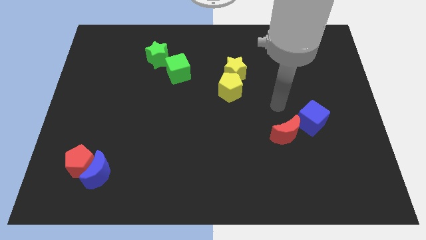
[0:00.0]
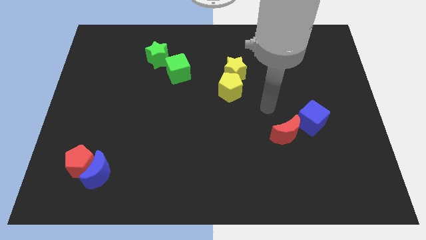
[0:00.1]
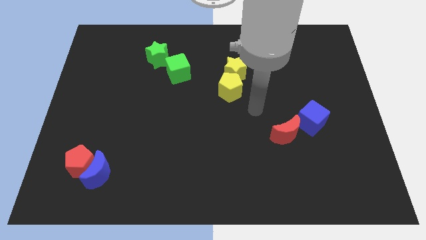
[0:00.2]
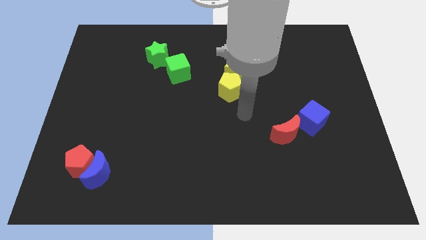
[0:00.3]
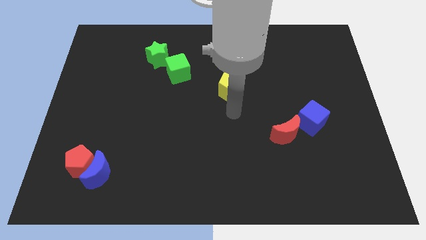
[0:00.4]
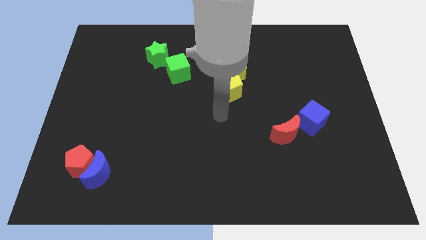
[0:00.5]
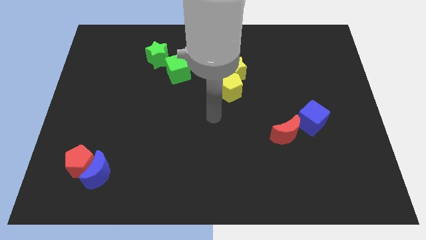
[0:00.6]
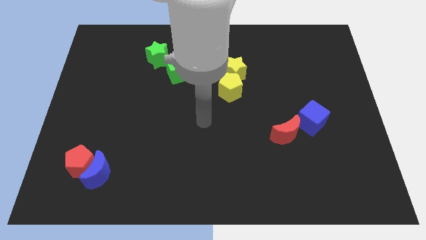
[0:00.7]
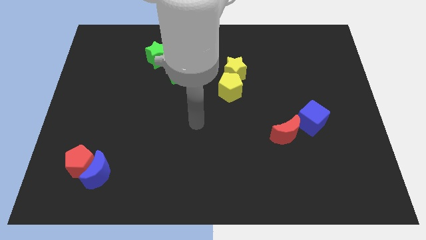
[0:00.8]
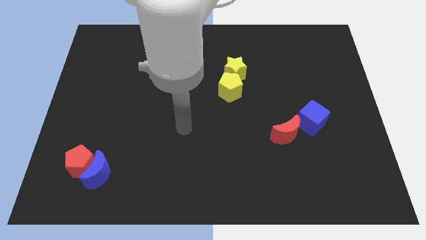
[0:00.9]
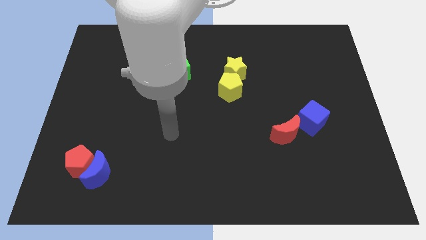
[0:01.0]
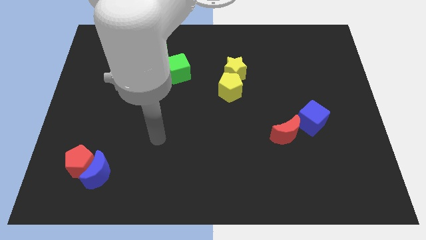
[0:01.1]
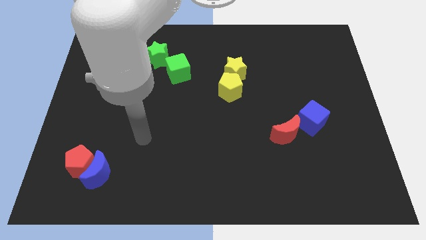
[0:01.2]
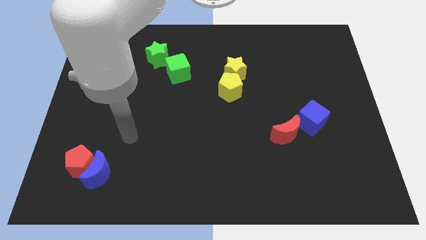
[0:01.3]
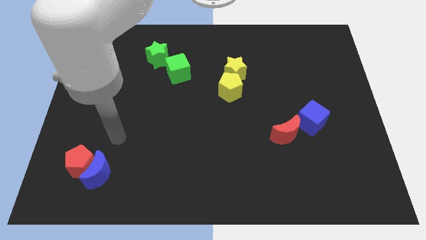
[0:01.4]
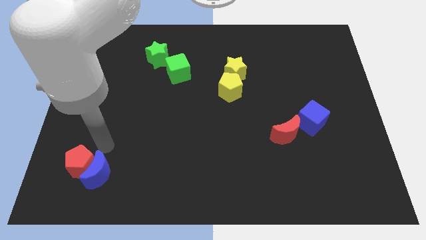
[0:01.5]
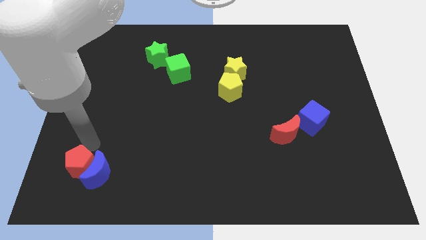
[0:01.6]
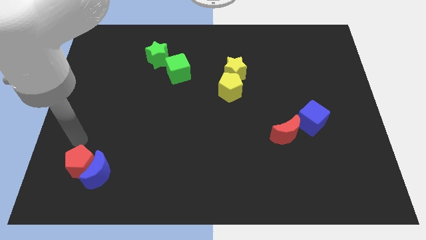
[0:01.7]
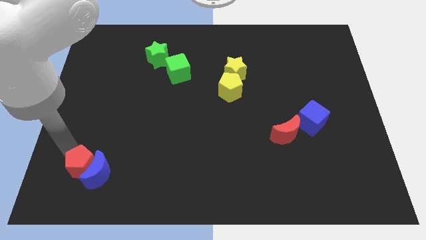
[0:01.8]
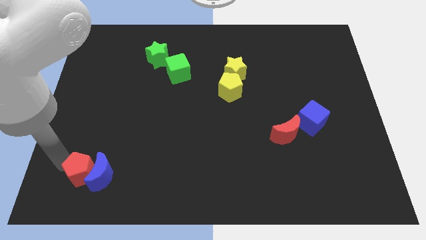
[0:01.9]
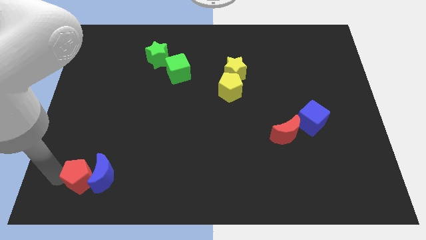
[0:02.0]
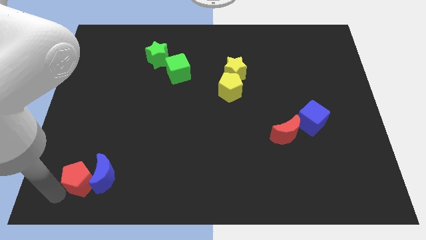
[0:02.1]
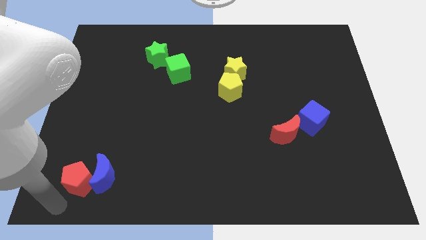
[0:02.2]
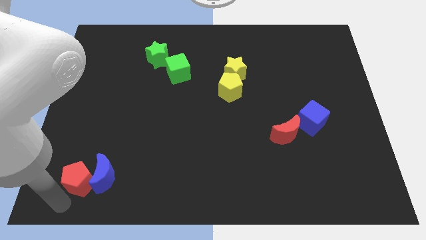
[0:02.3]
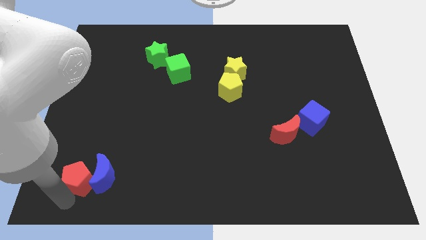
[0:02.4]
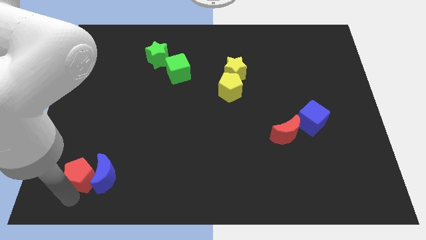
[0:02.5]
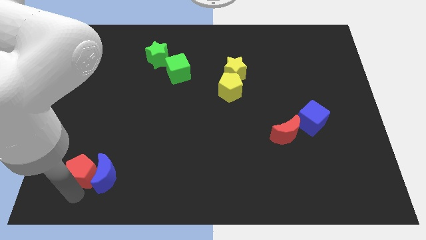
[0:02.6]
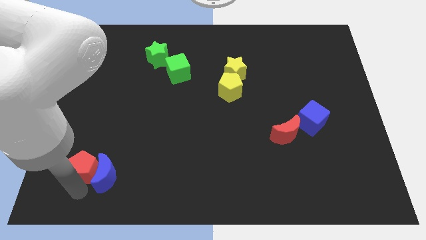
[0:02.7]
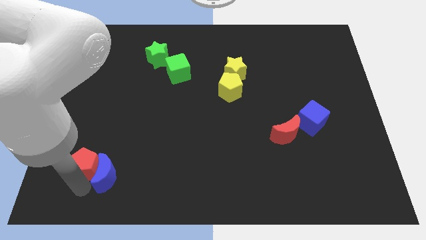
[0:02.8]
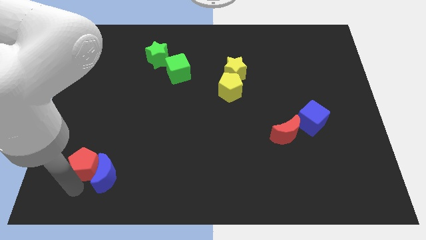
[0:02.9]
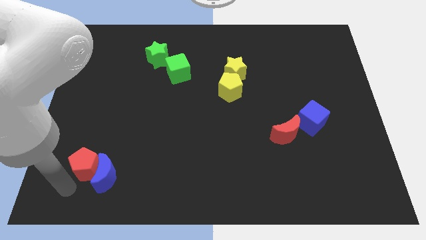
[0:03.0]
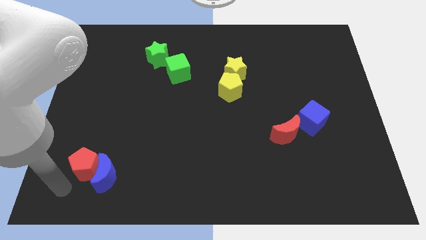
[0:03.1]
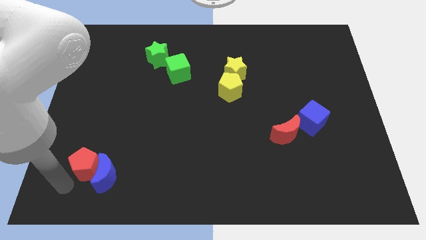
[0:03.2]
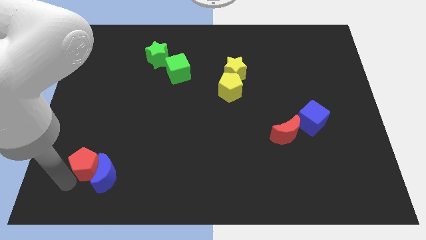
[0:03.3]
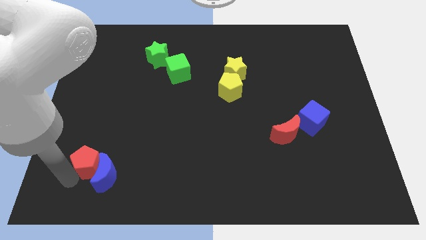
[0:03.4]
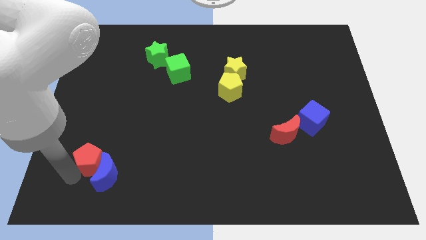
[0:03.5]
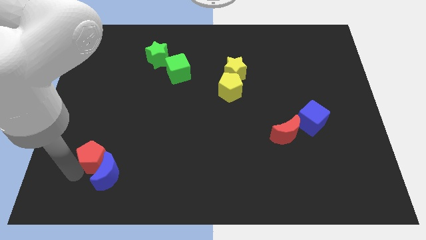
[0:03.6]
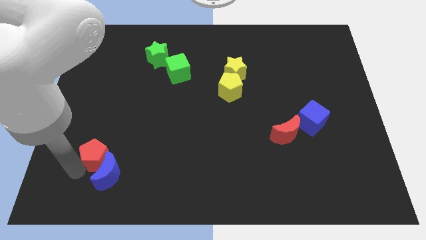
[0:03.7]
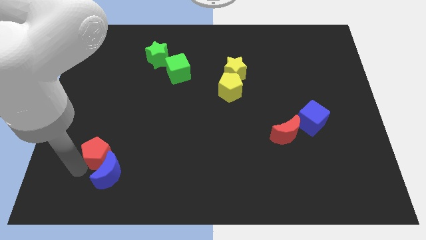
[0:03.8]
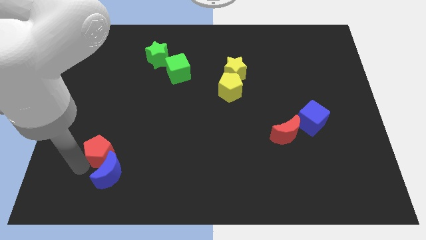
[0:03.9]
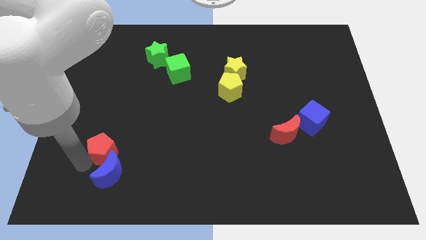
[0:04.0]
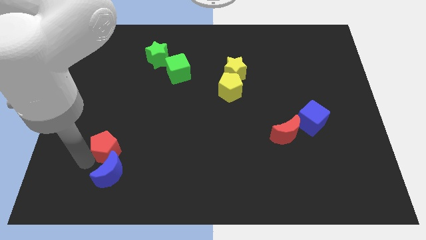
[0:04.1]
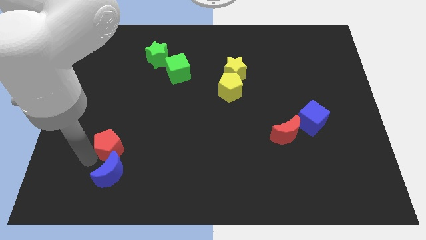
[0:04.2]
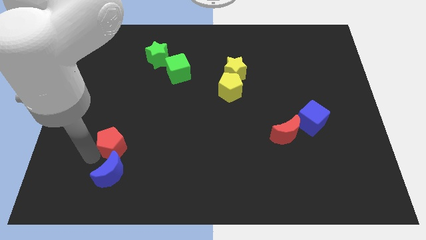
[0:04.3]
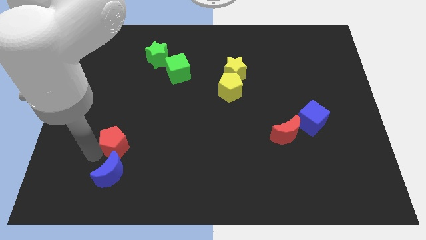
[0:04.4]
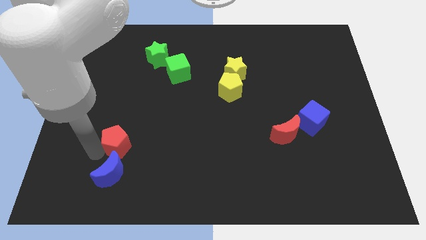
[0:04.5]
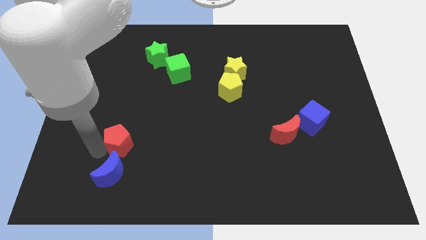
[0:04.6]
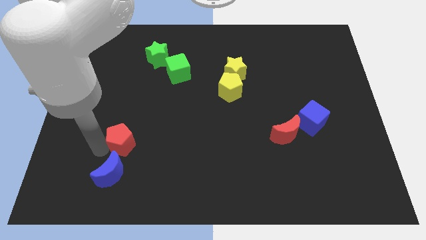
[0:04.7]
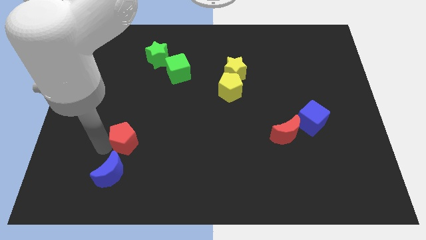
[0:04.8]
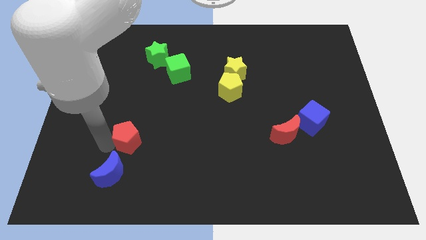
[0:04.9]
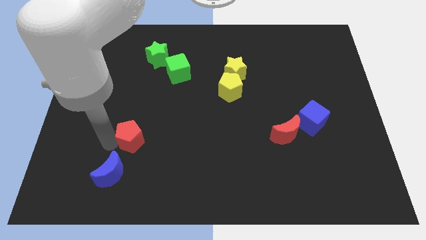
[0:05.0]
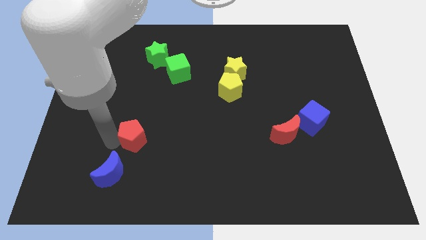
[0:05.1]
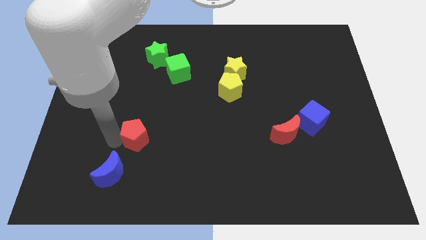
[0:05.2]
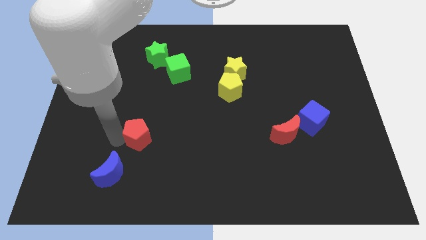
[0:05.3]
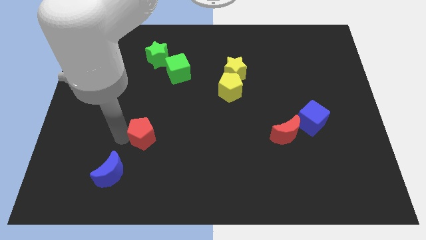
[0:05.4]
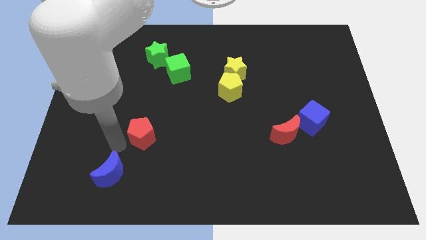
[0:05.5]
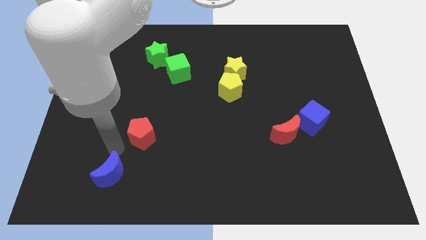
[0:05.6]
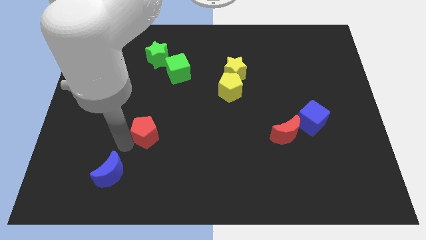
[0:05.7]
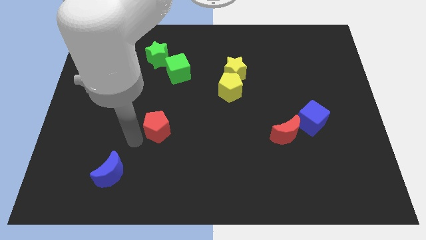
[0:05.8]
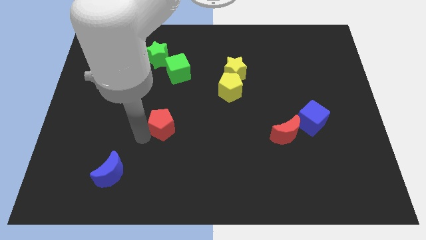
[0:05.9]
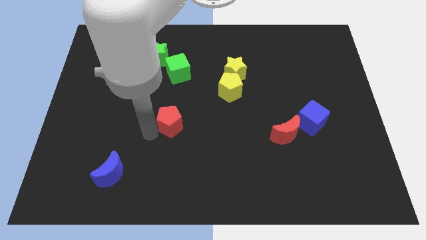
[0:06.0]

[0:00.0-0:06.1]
slide the red pentagon to the middle
